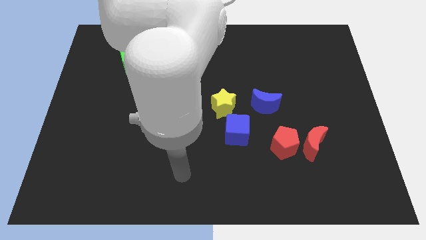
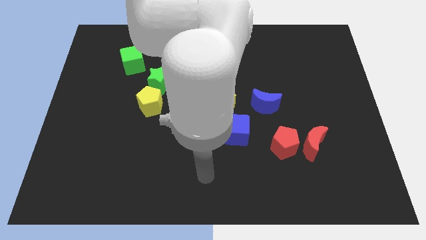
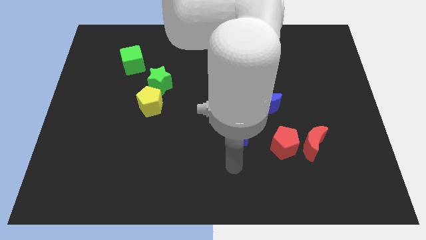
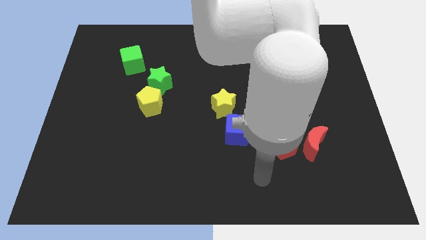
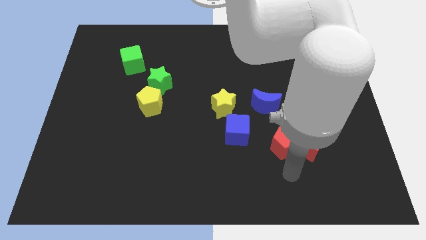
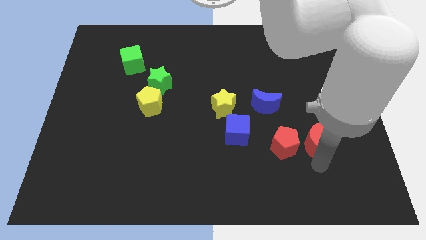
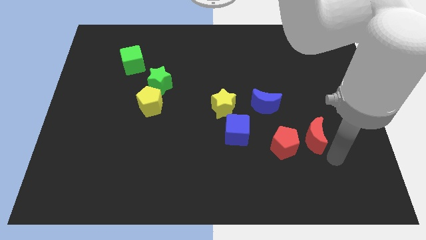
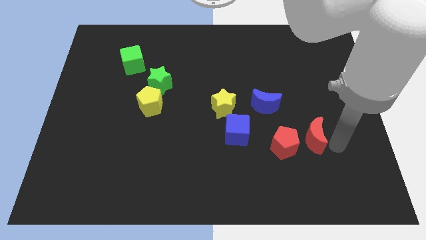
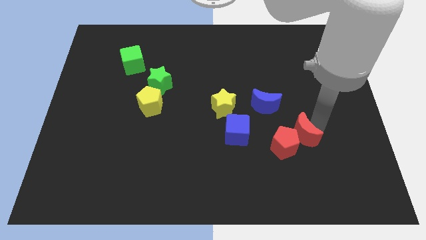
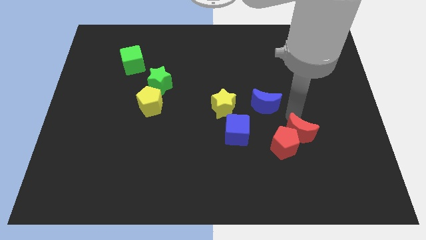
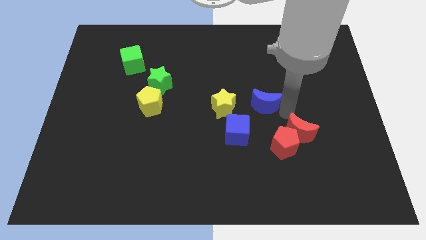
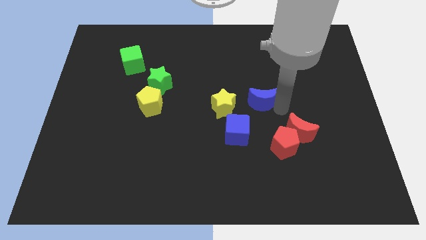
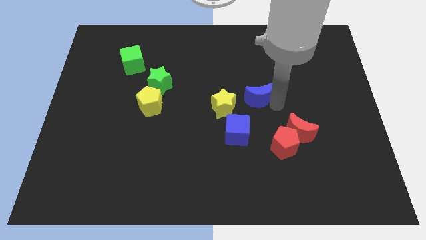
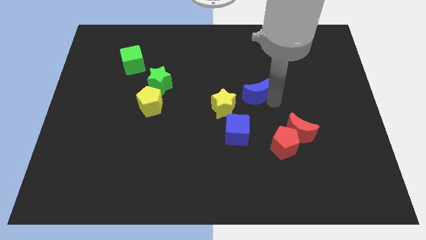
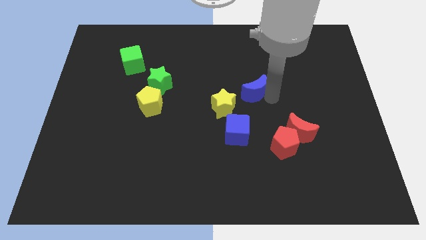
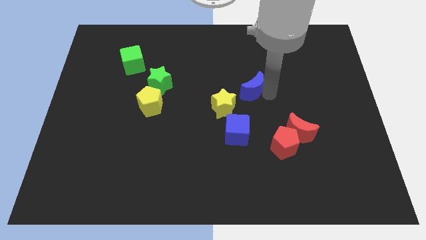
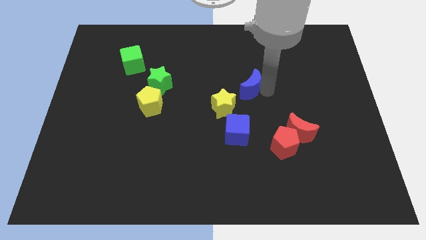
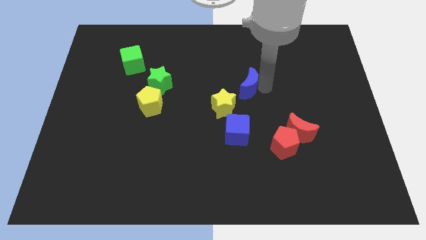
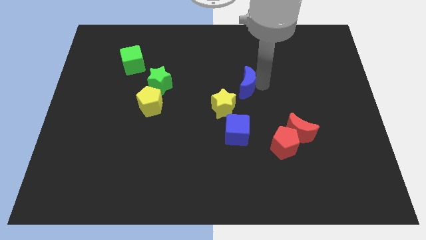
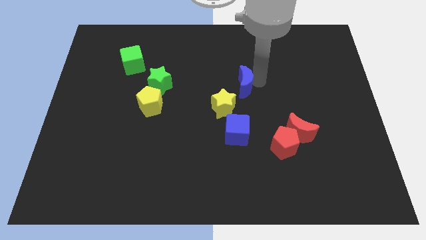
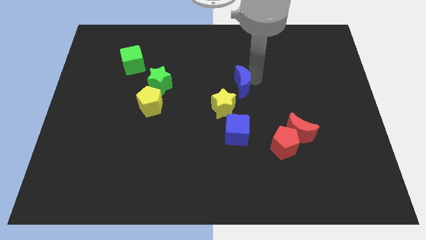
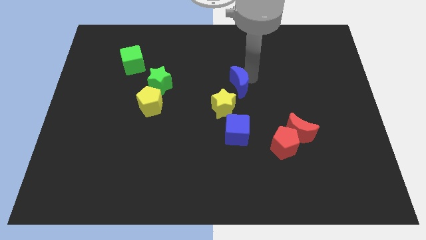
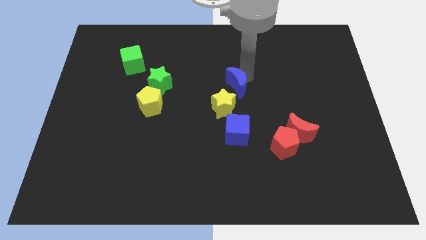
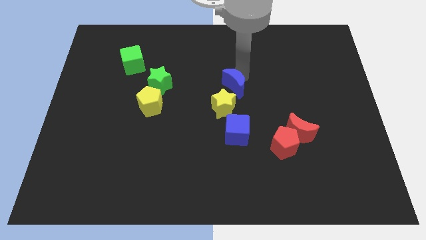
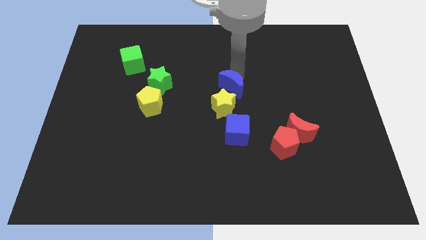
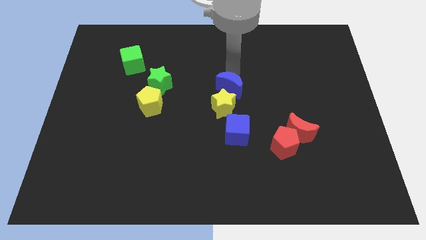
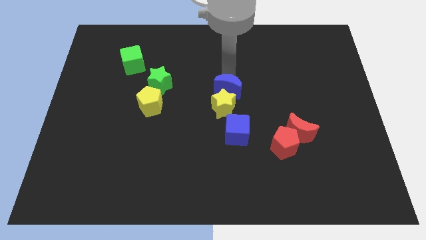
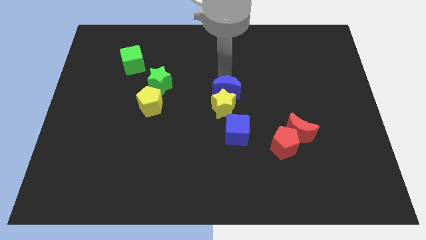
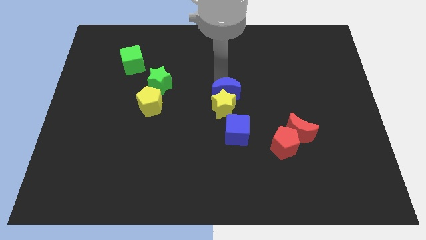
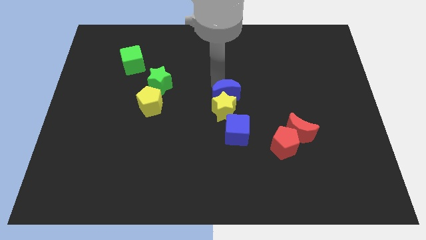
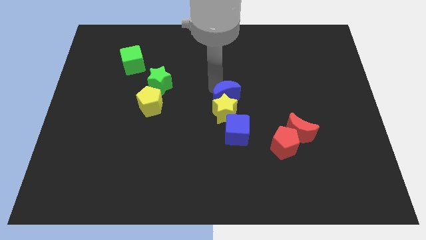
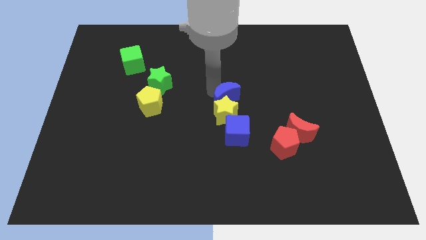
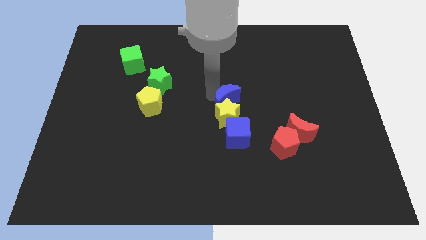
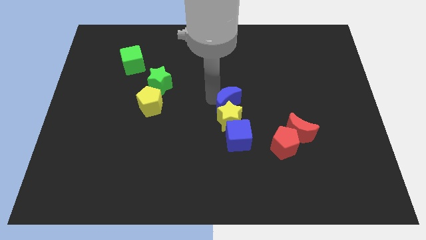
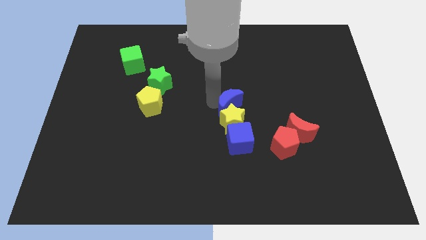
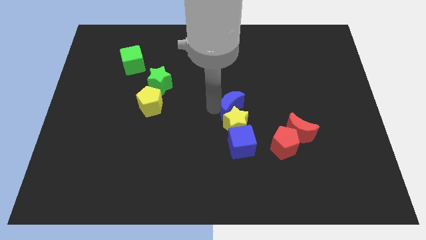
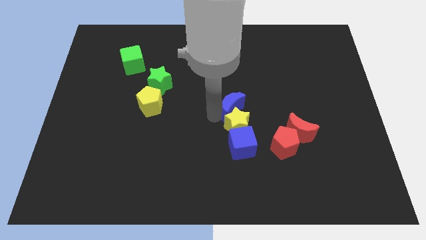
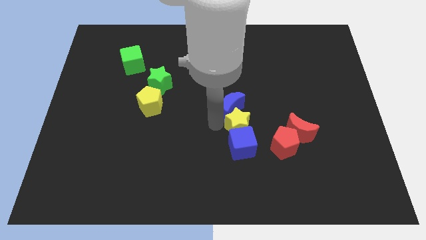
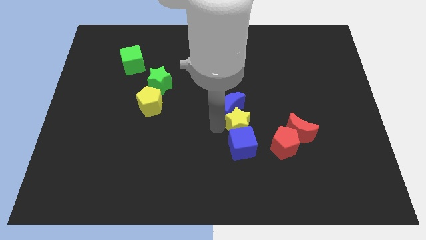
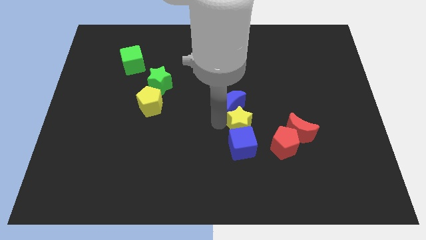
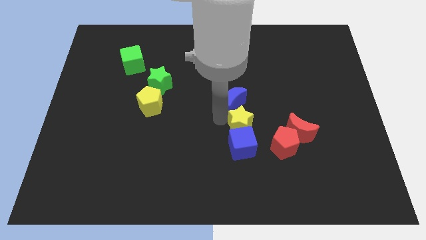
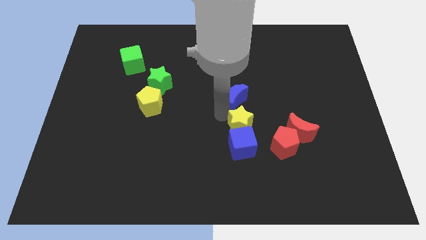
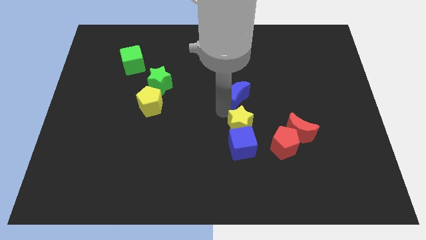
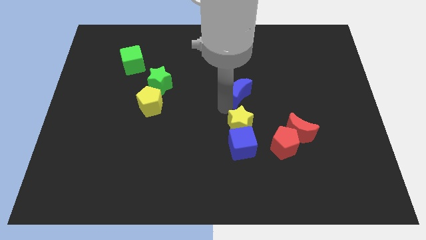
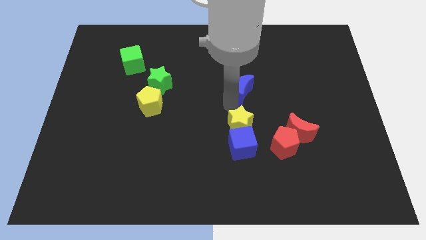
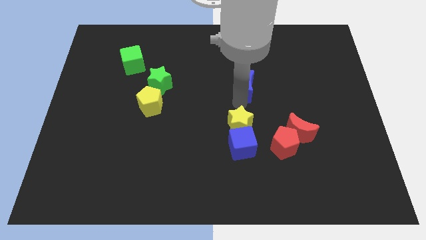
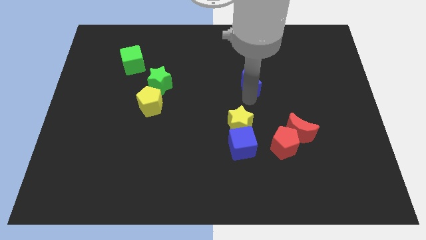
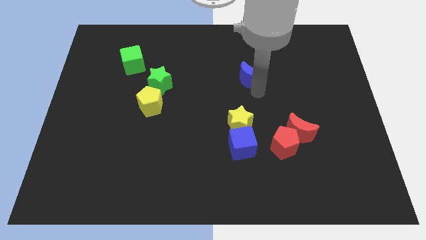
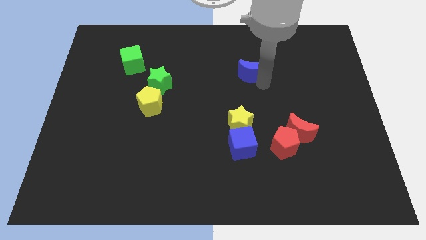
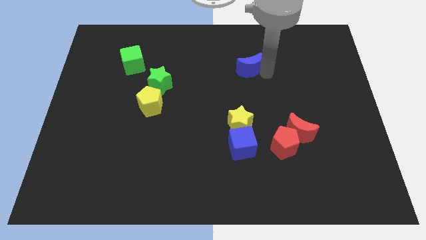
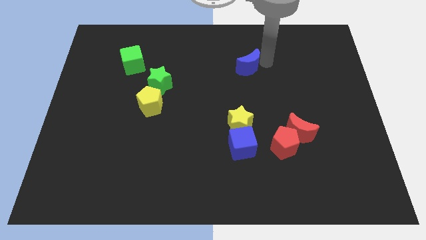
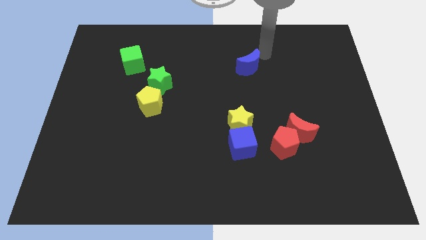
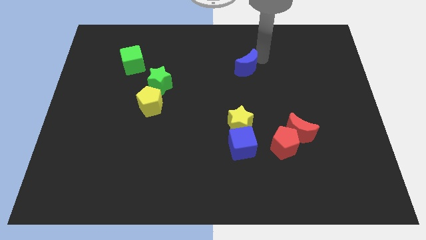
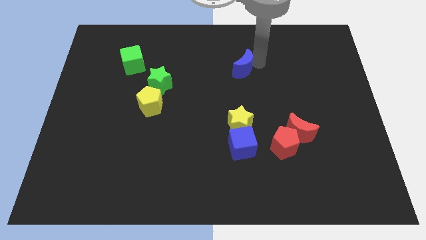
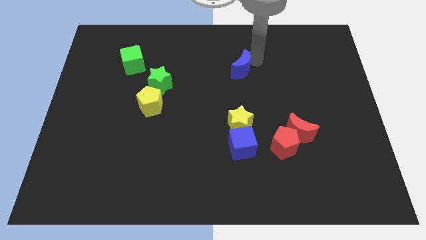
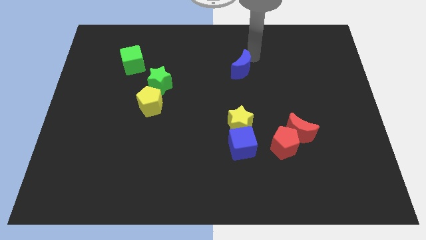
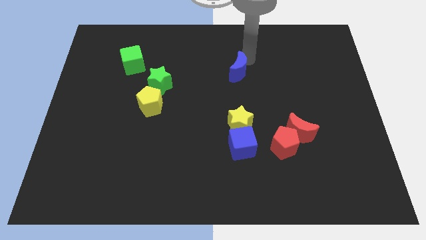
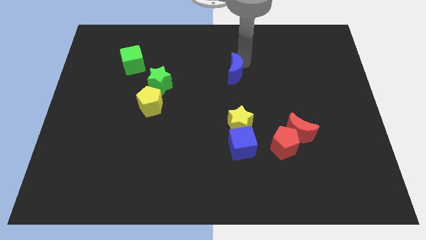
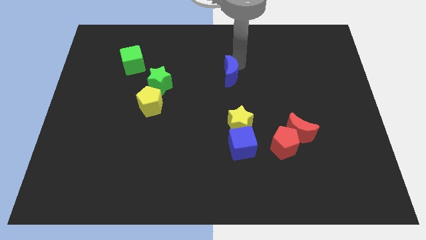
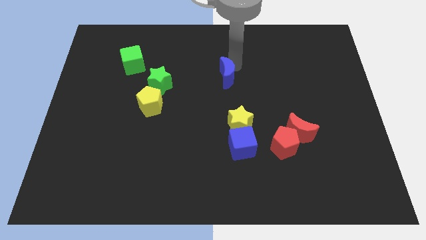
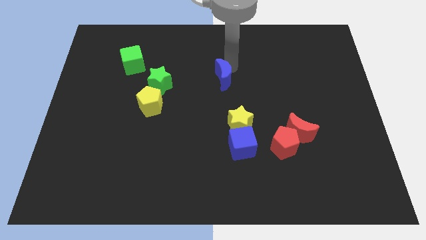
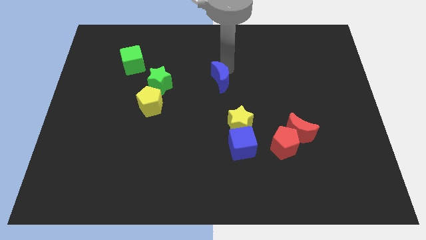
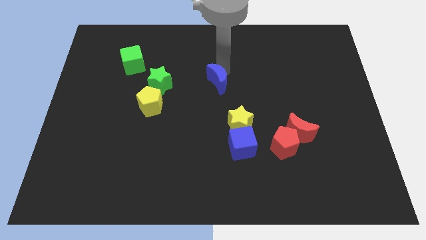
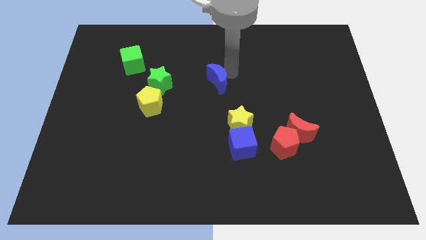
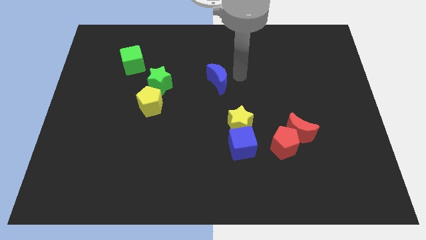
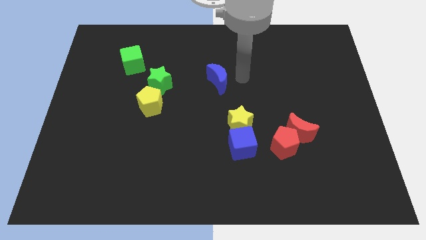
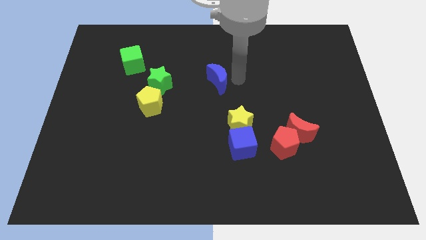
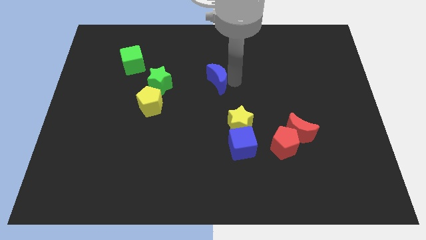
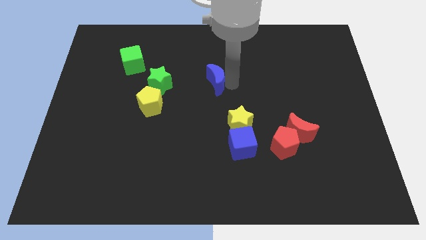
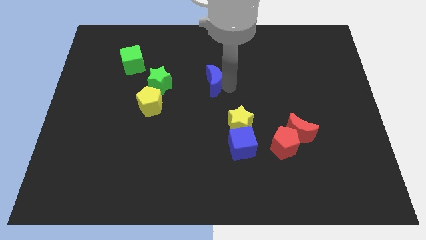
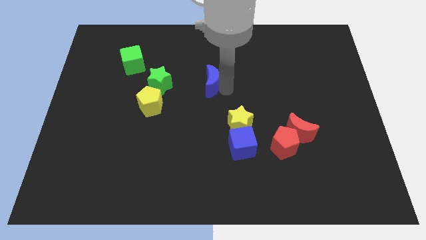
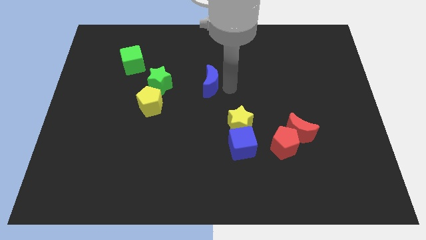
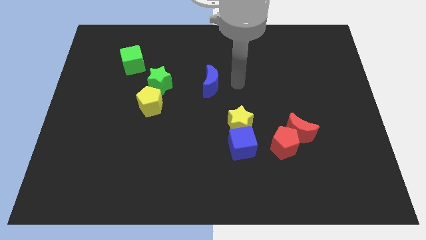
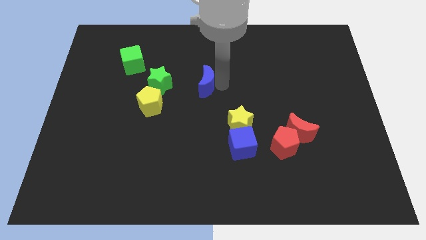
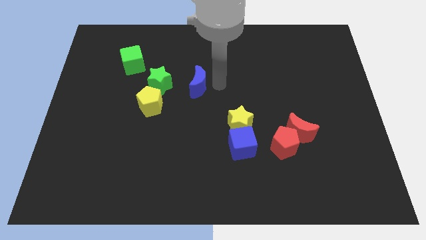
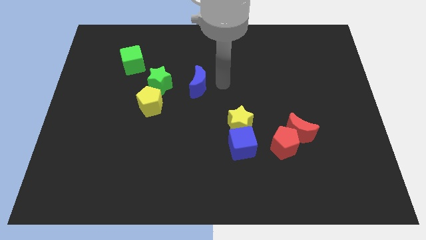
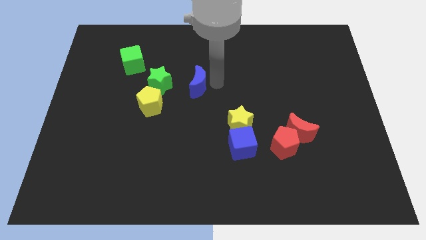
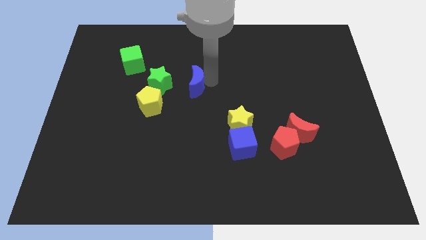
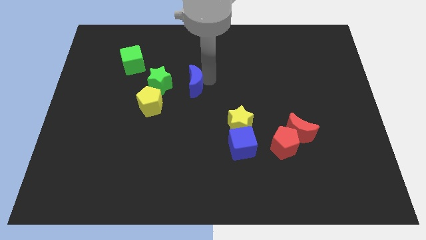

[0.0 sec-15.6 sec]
push the blue moon to the top right of the yellow pentagon
